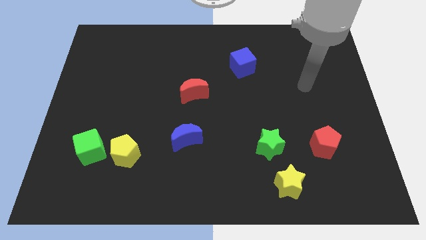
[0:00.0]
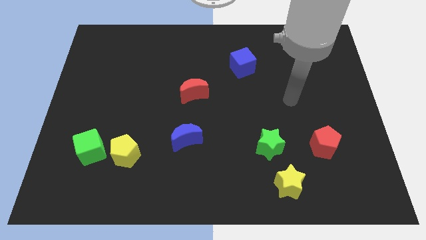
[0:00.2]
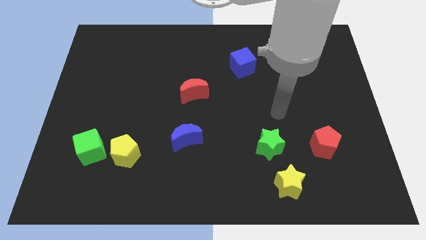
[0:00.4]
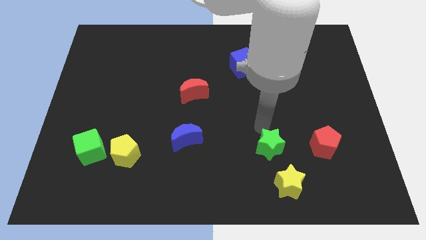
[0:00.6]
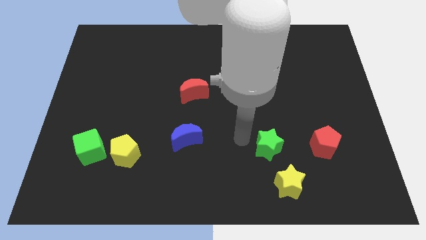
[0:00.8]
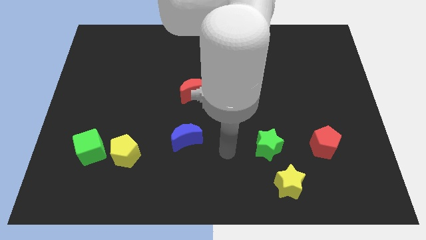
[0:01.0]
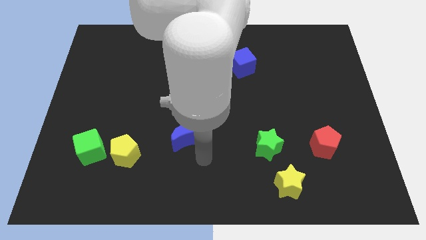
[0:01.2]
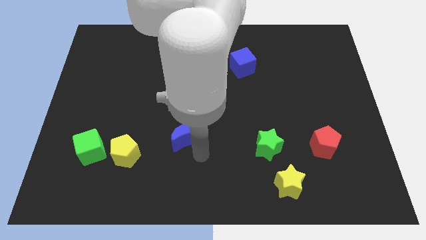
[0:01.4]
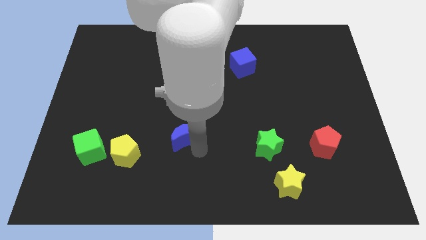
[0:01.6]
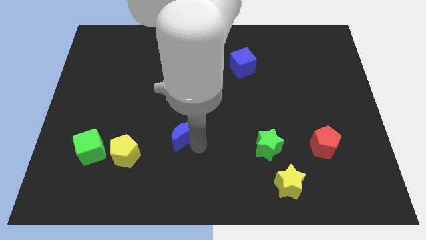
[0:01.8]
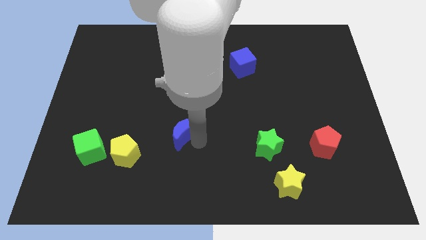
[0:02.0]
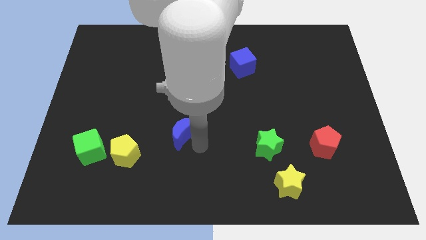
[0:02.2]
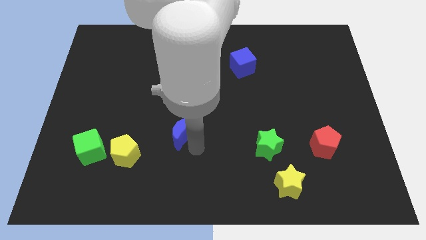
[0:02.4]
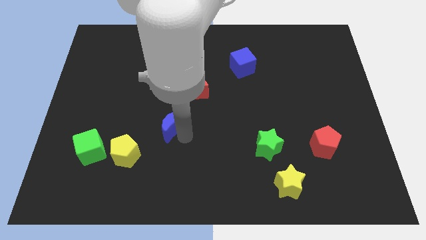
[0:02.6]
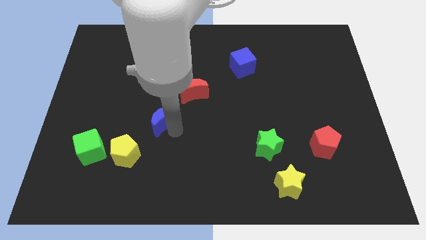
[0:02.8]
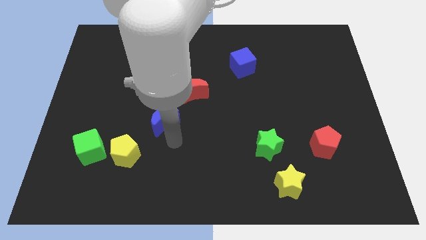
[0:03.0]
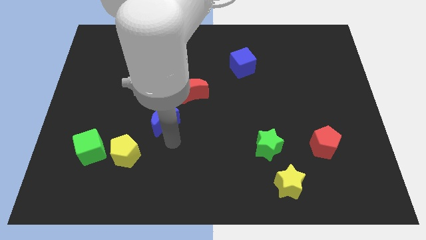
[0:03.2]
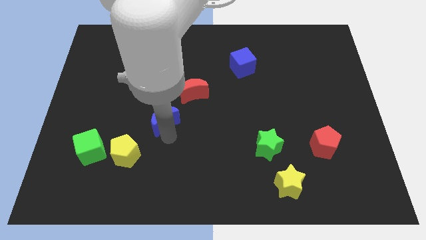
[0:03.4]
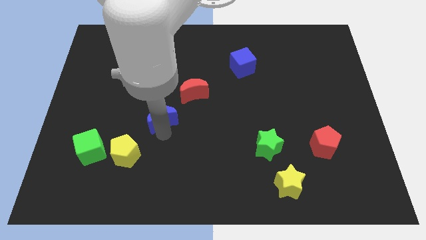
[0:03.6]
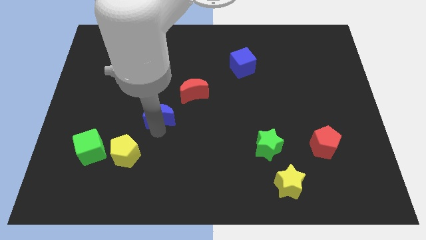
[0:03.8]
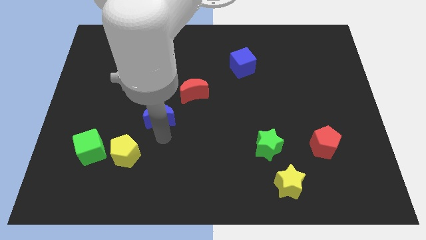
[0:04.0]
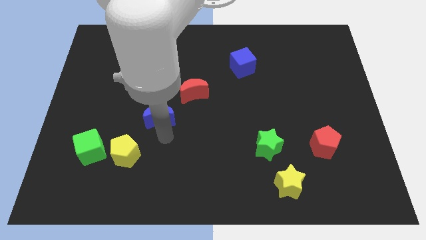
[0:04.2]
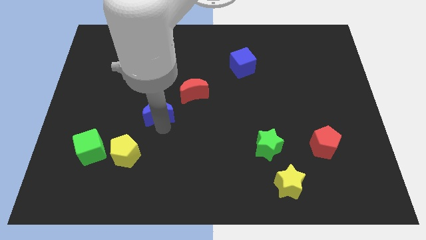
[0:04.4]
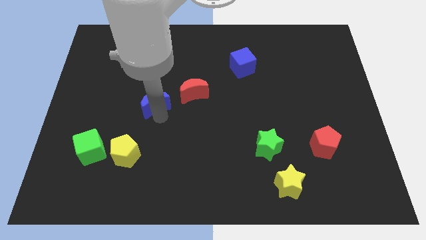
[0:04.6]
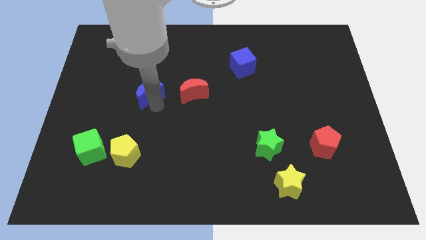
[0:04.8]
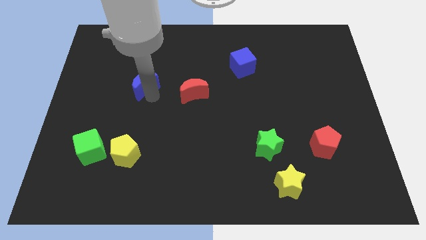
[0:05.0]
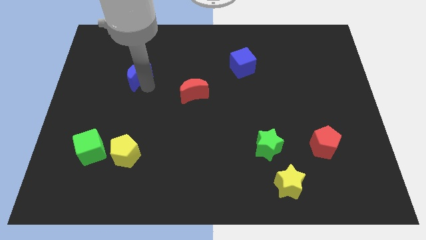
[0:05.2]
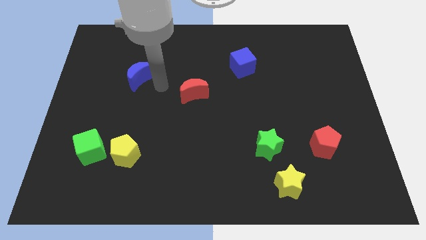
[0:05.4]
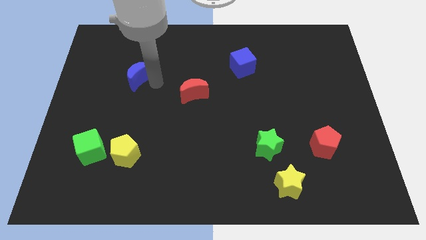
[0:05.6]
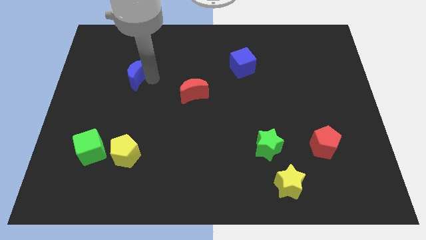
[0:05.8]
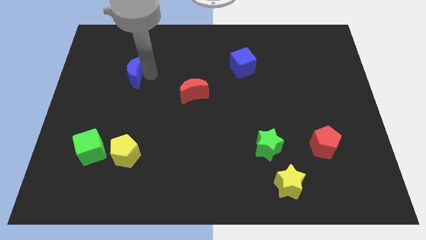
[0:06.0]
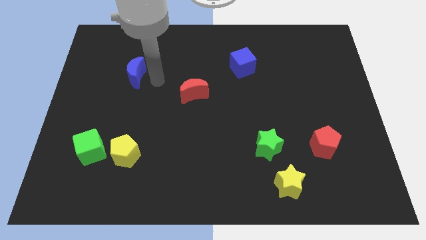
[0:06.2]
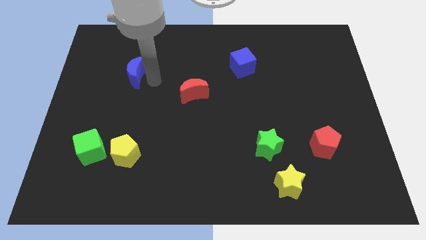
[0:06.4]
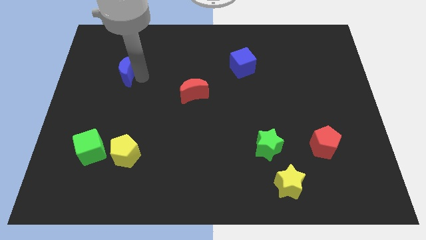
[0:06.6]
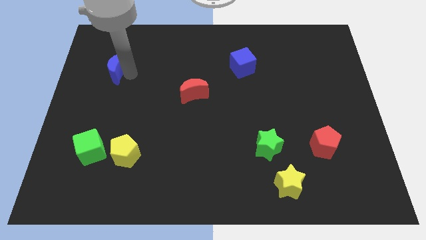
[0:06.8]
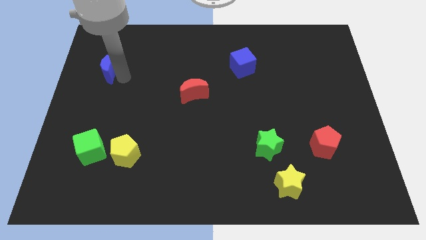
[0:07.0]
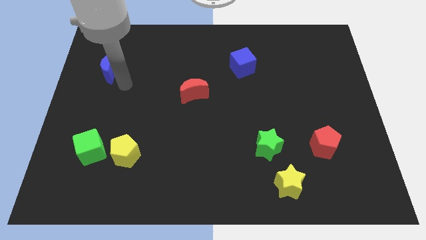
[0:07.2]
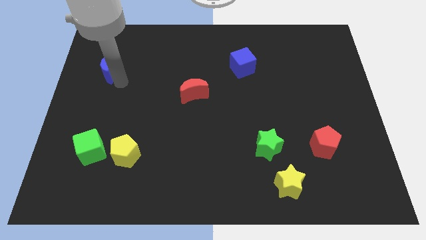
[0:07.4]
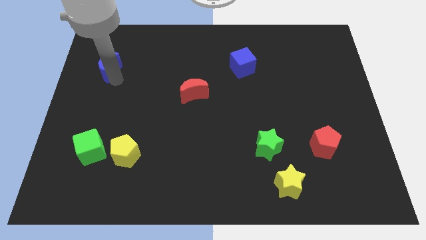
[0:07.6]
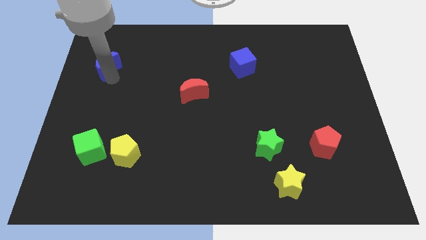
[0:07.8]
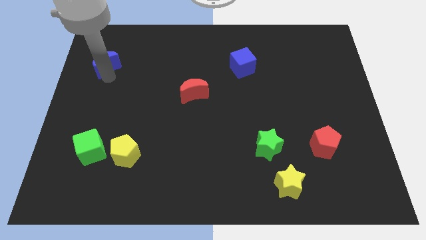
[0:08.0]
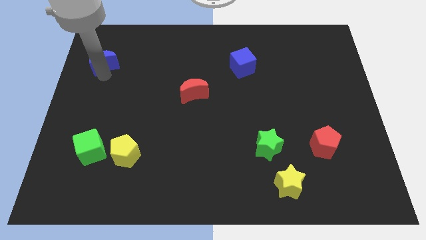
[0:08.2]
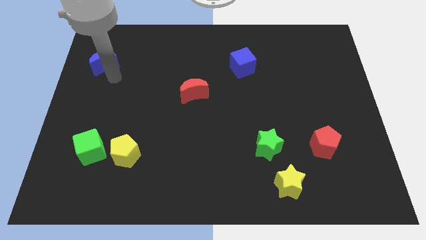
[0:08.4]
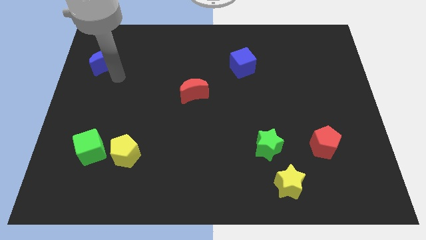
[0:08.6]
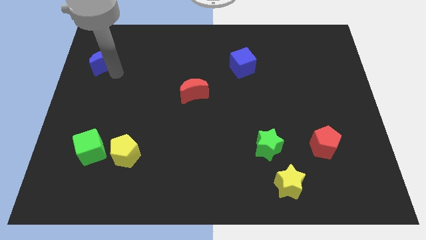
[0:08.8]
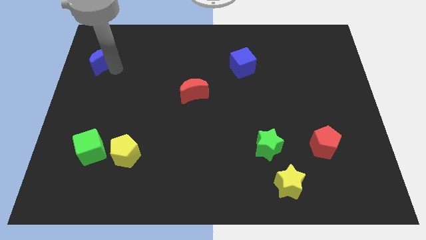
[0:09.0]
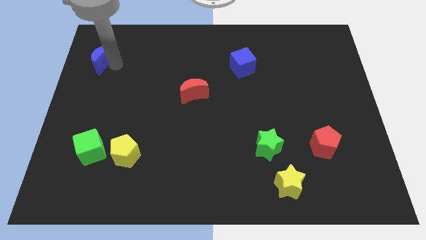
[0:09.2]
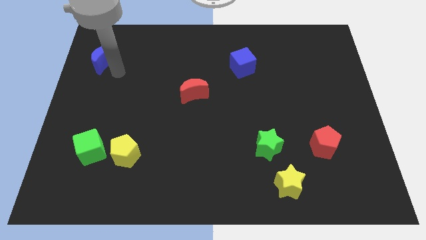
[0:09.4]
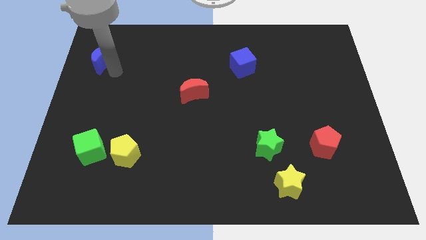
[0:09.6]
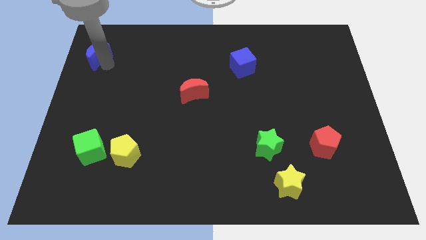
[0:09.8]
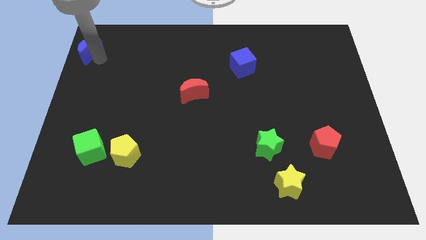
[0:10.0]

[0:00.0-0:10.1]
push the blue moon to the top left
